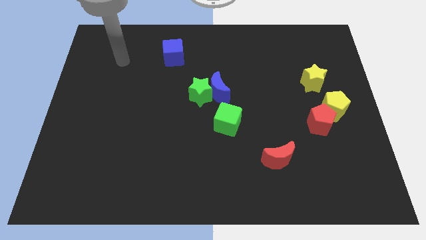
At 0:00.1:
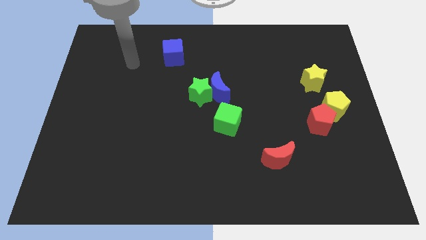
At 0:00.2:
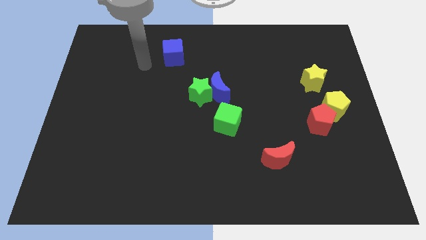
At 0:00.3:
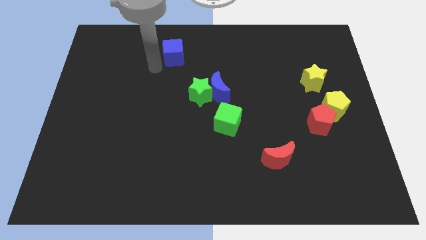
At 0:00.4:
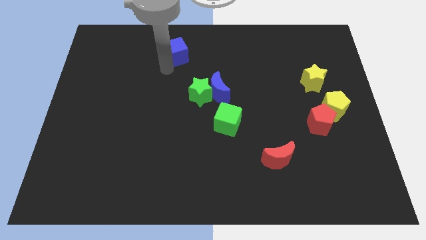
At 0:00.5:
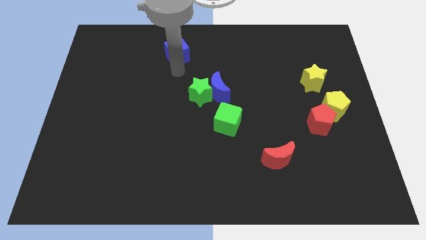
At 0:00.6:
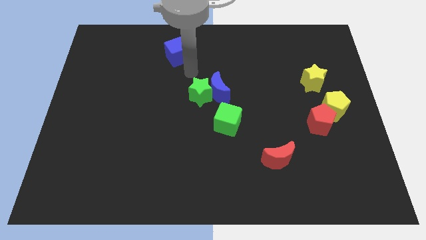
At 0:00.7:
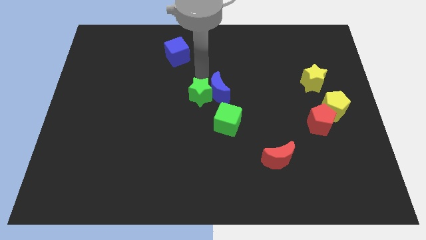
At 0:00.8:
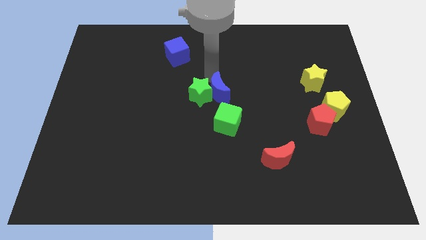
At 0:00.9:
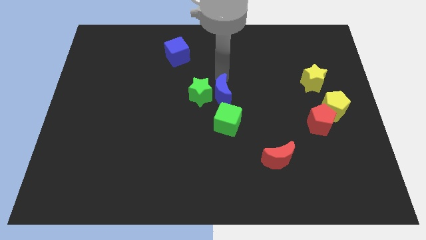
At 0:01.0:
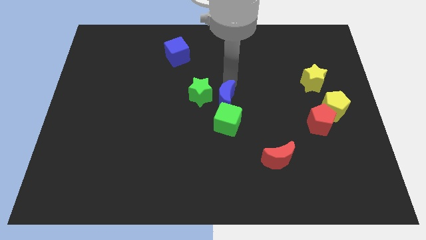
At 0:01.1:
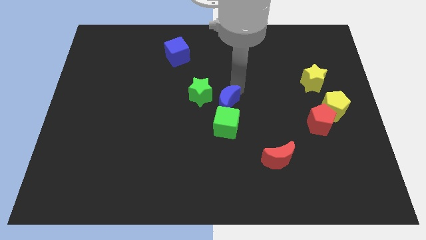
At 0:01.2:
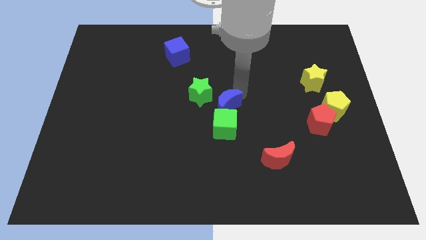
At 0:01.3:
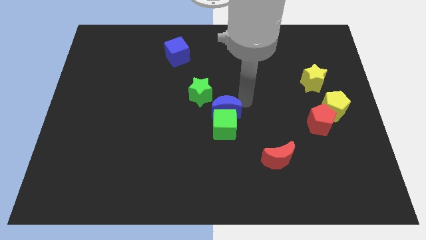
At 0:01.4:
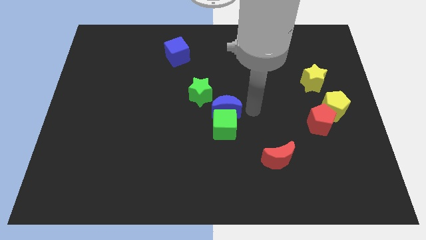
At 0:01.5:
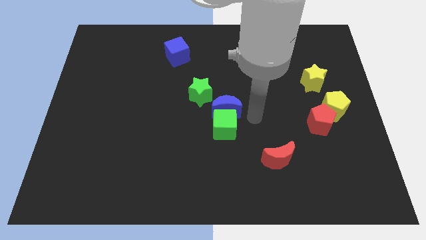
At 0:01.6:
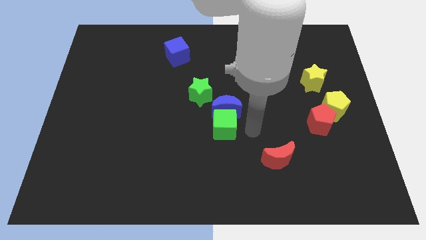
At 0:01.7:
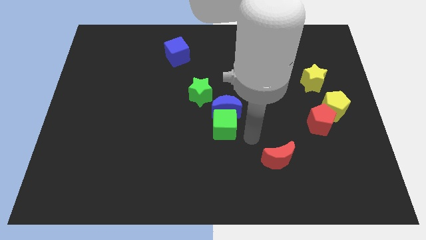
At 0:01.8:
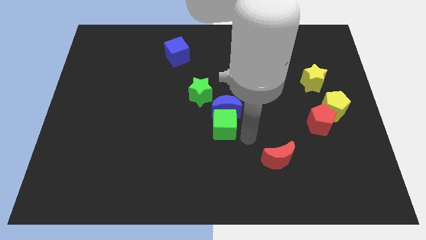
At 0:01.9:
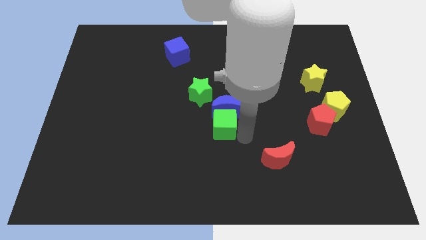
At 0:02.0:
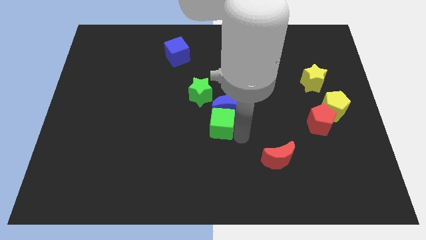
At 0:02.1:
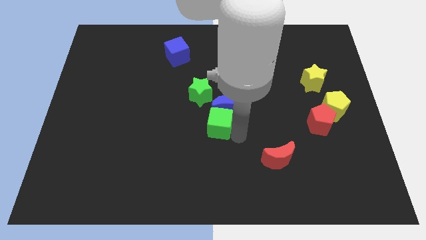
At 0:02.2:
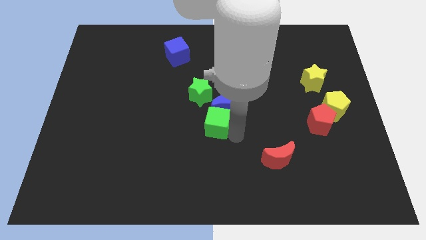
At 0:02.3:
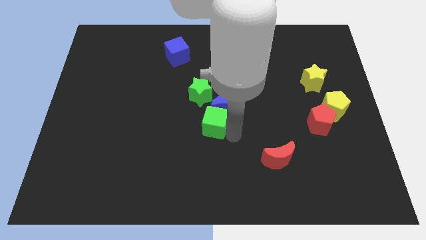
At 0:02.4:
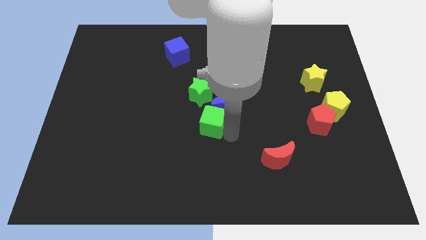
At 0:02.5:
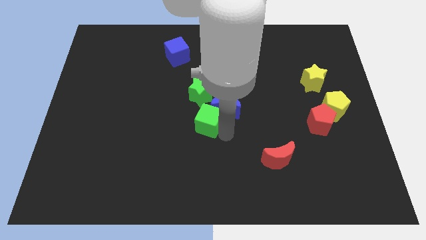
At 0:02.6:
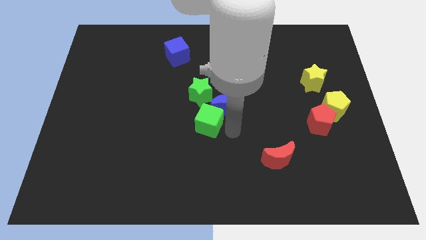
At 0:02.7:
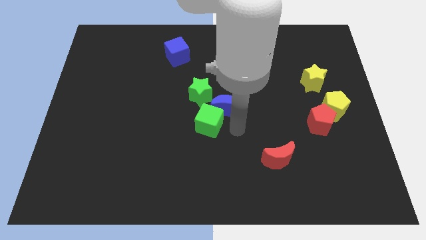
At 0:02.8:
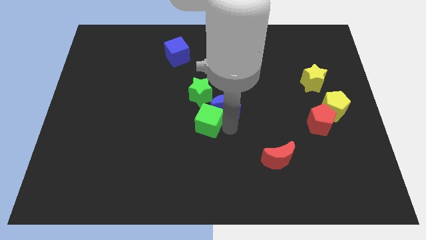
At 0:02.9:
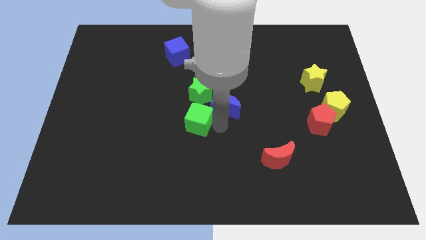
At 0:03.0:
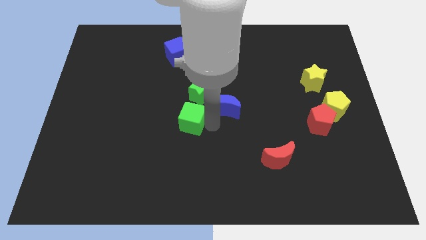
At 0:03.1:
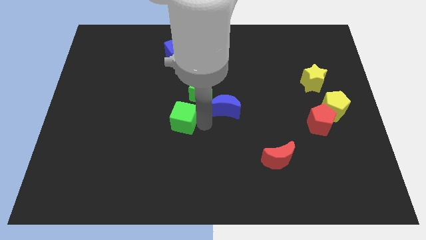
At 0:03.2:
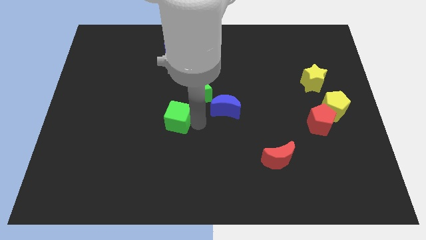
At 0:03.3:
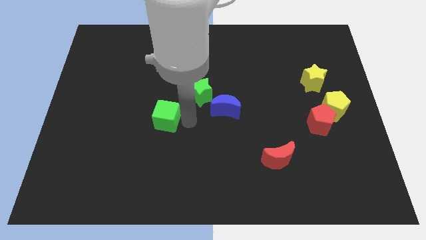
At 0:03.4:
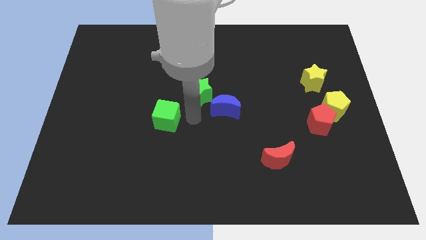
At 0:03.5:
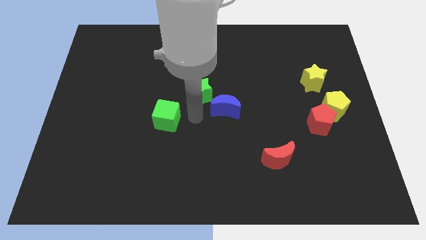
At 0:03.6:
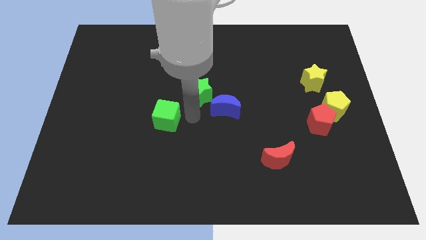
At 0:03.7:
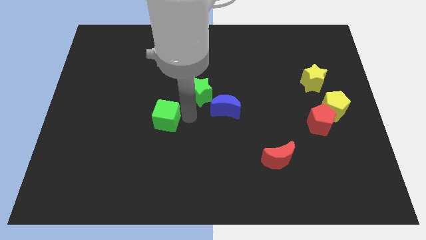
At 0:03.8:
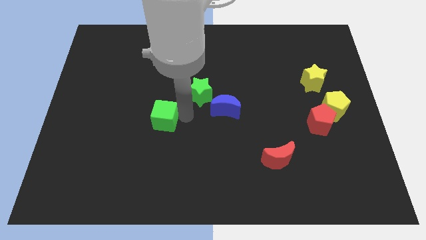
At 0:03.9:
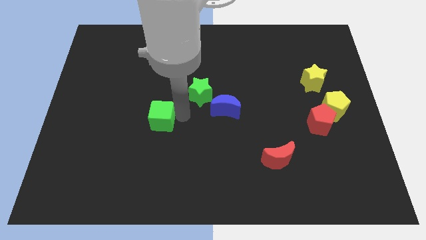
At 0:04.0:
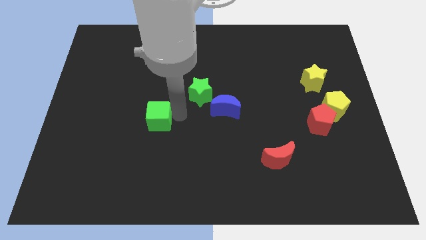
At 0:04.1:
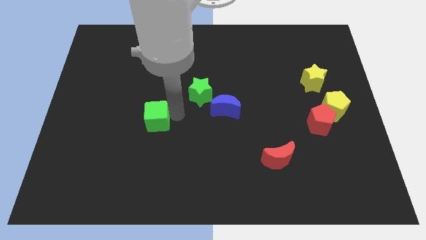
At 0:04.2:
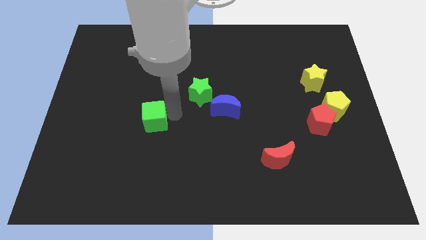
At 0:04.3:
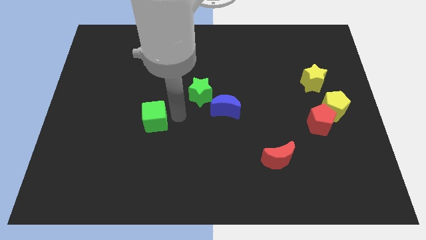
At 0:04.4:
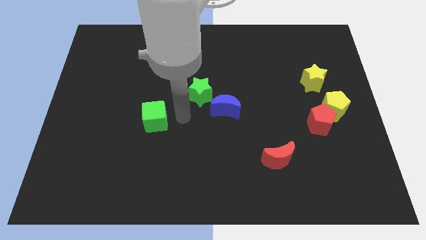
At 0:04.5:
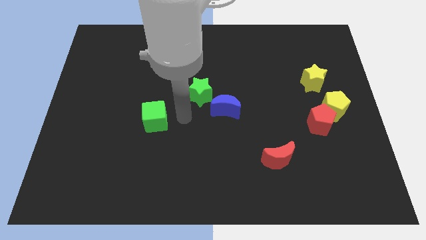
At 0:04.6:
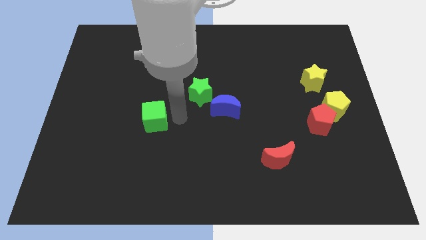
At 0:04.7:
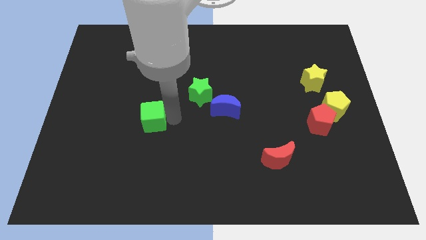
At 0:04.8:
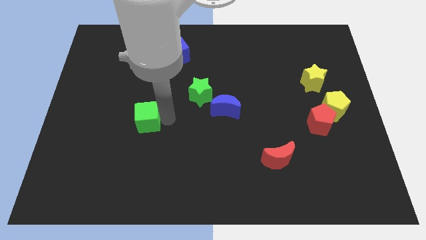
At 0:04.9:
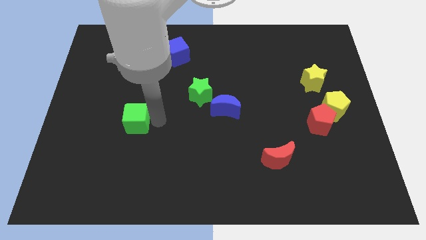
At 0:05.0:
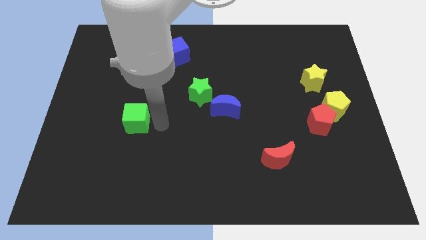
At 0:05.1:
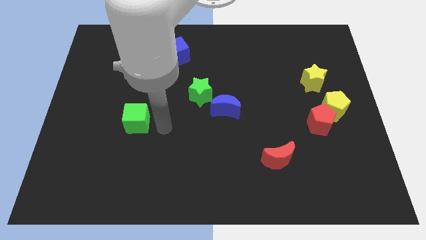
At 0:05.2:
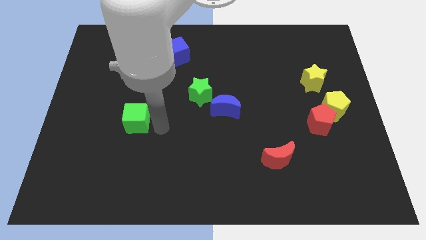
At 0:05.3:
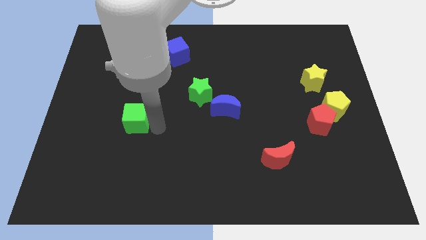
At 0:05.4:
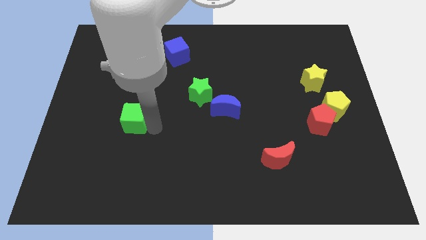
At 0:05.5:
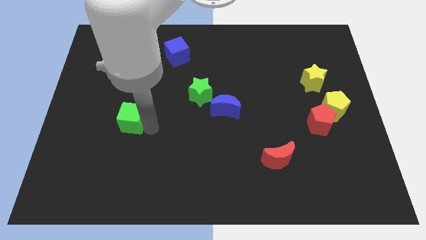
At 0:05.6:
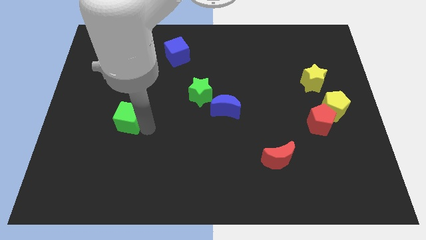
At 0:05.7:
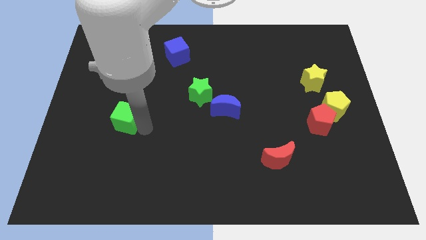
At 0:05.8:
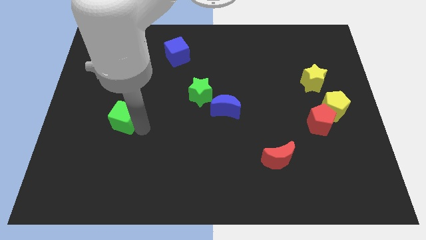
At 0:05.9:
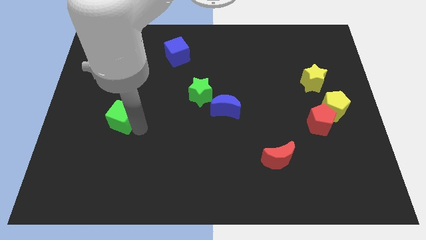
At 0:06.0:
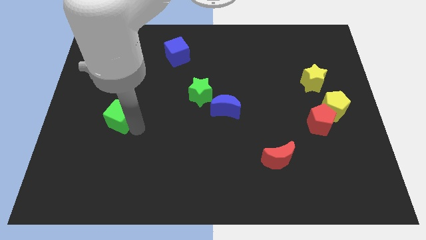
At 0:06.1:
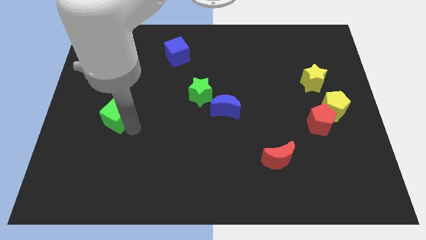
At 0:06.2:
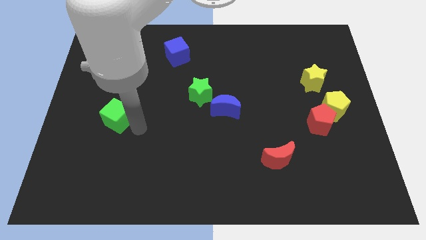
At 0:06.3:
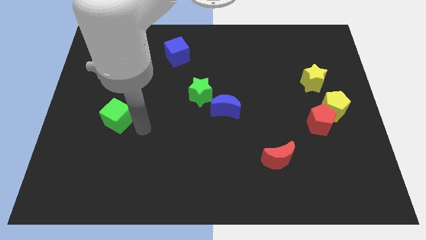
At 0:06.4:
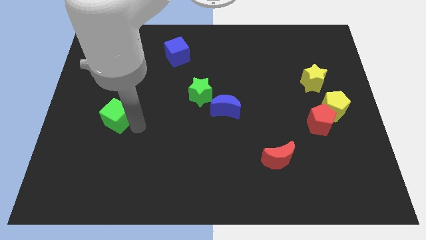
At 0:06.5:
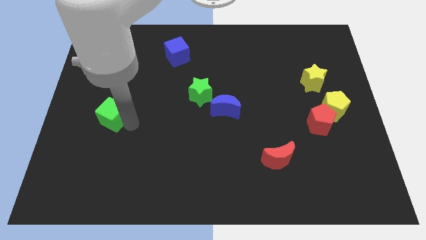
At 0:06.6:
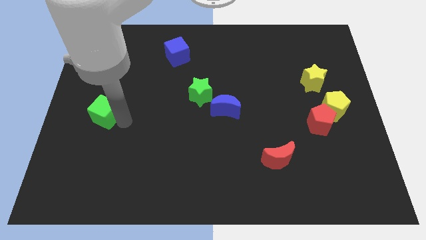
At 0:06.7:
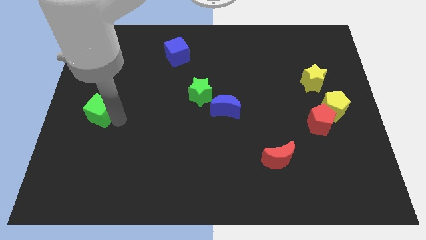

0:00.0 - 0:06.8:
slide the green cube to the center left
